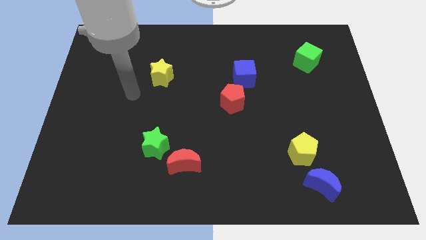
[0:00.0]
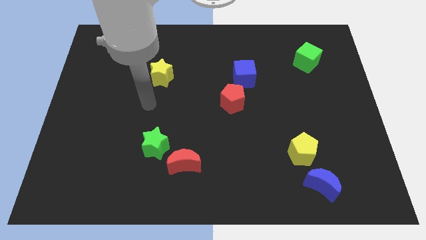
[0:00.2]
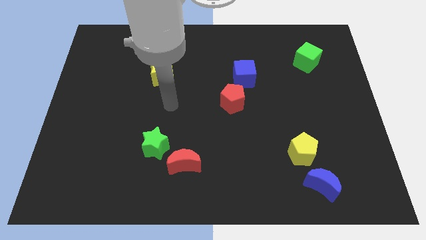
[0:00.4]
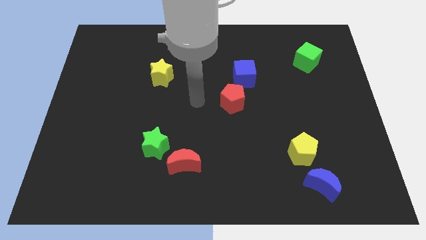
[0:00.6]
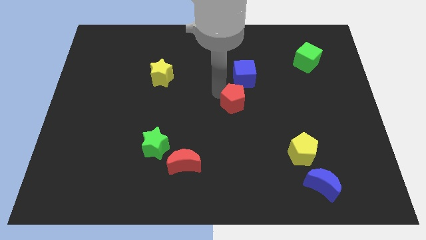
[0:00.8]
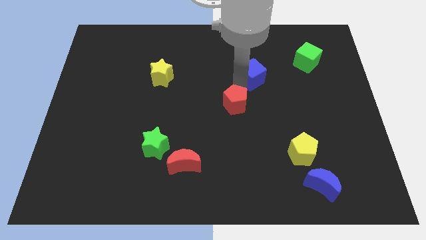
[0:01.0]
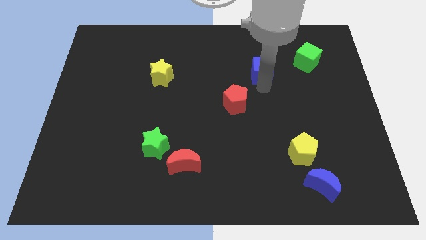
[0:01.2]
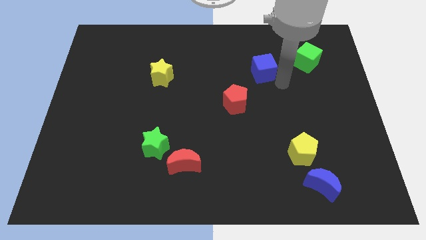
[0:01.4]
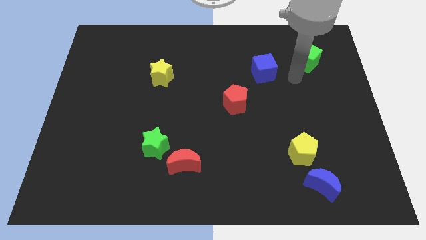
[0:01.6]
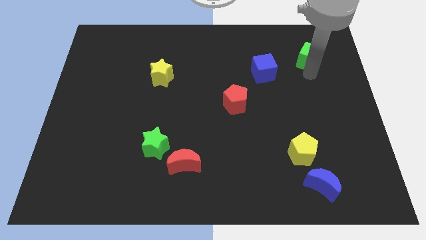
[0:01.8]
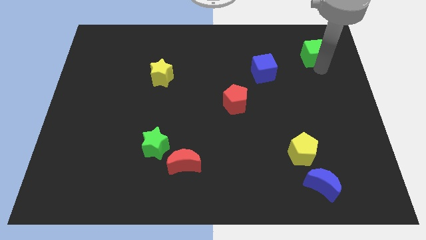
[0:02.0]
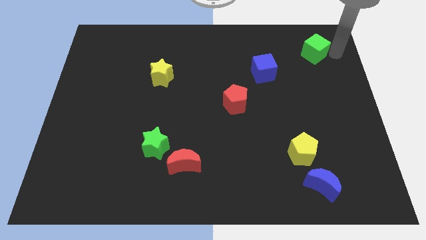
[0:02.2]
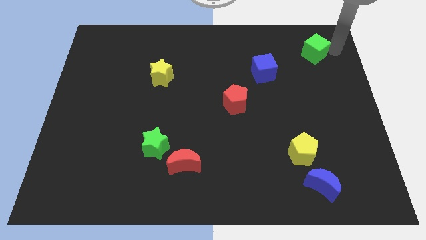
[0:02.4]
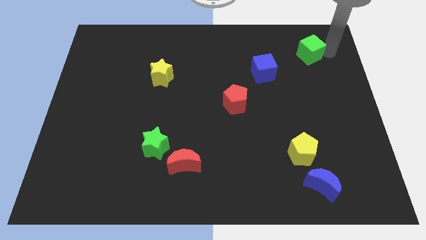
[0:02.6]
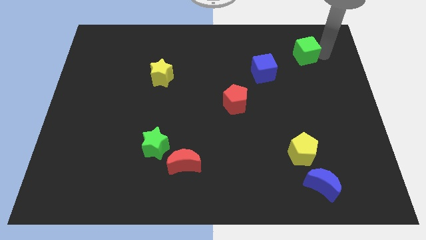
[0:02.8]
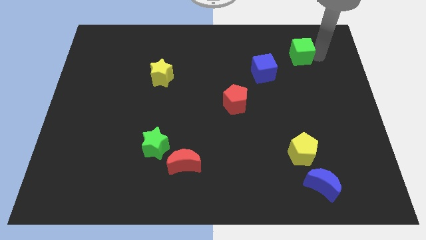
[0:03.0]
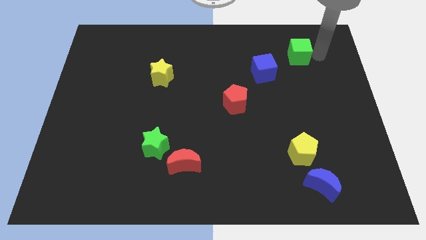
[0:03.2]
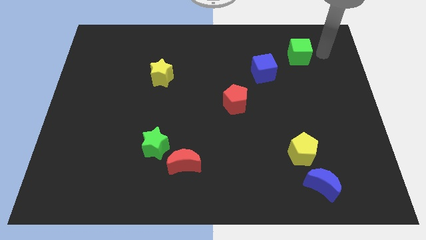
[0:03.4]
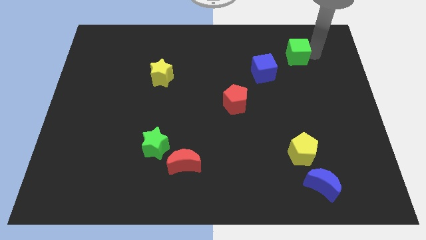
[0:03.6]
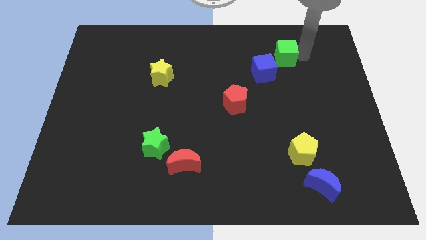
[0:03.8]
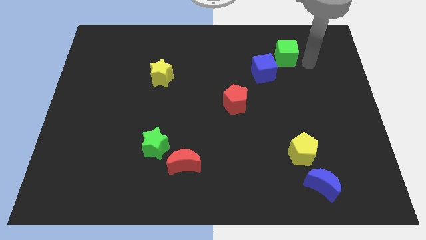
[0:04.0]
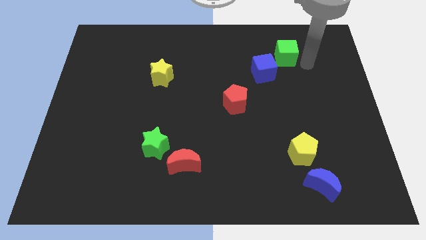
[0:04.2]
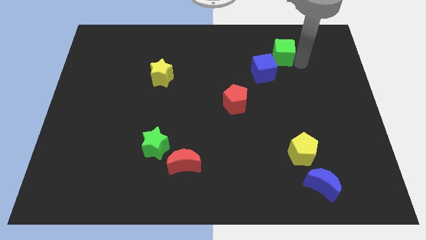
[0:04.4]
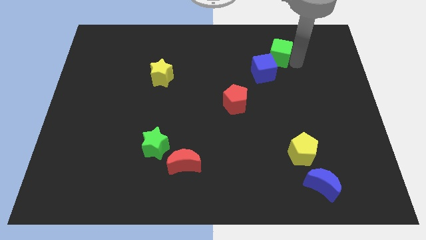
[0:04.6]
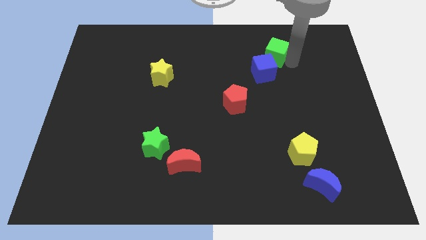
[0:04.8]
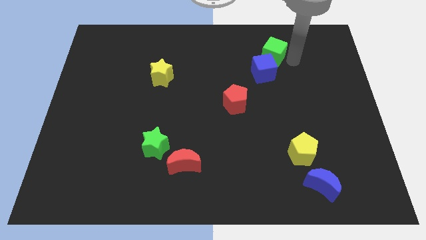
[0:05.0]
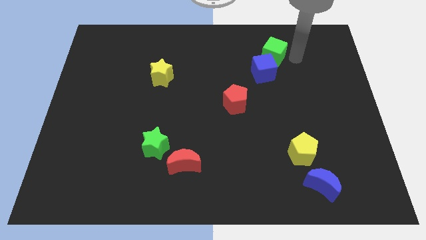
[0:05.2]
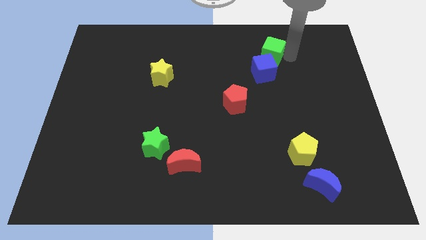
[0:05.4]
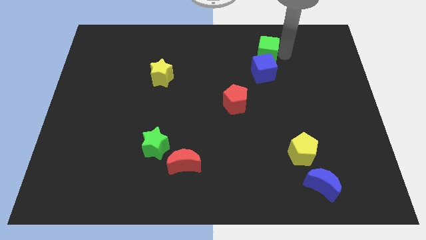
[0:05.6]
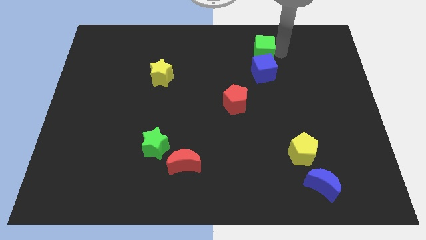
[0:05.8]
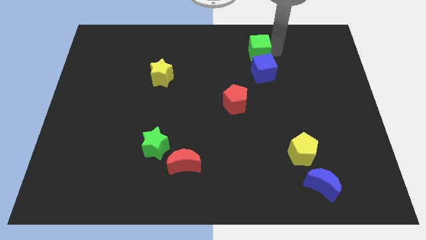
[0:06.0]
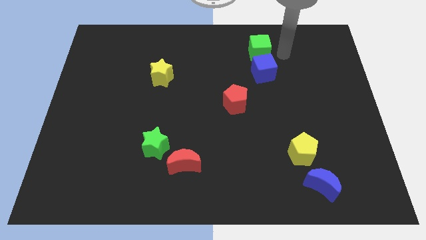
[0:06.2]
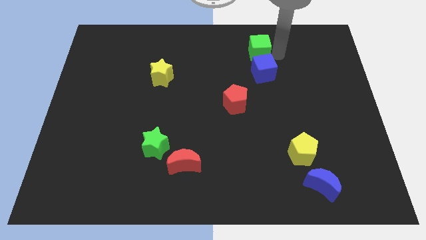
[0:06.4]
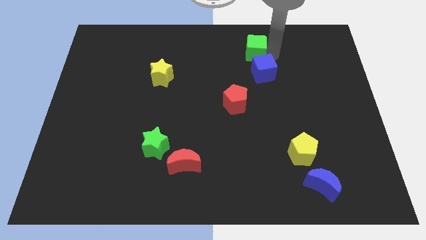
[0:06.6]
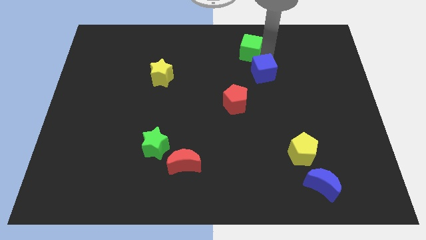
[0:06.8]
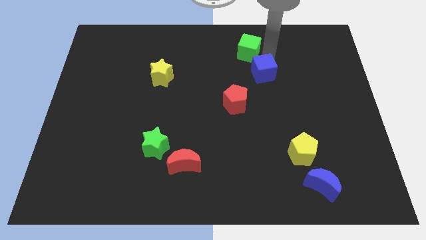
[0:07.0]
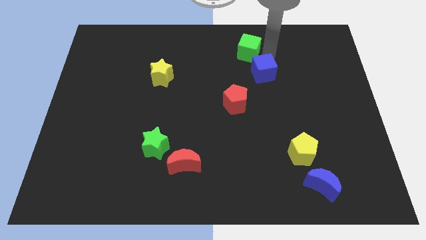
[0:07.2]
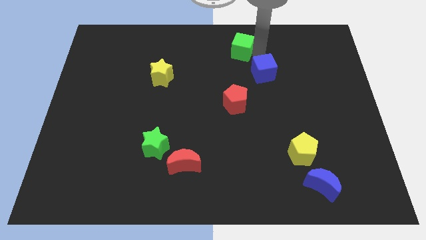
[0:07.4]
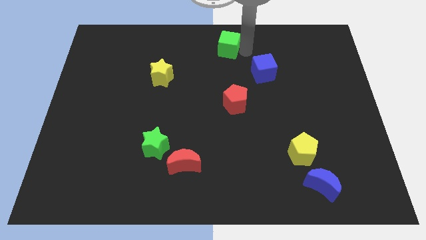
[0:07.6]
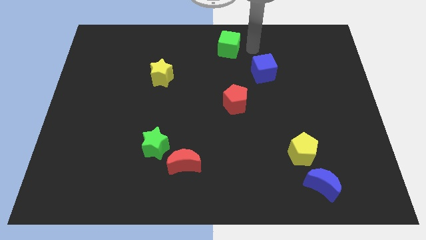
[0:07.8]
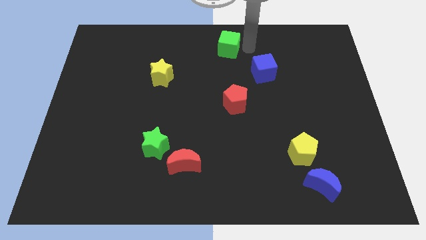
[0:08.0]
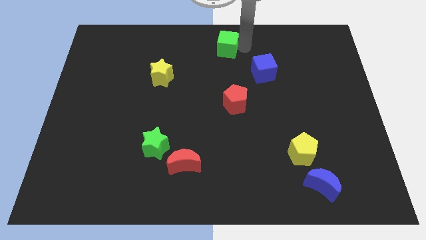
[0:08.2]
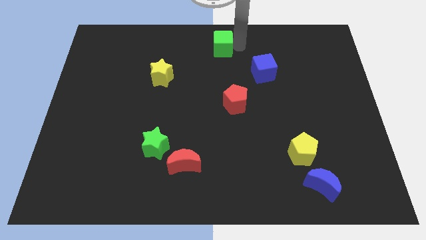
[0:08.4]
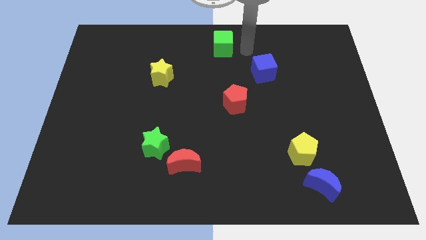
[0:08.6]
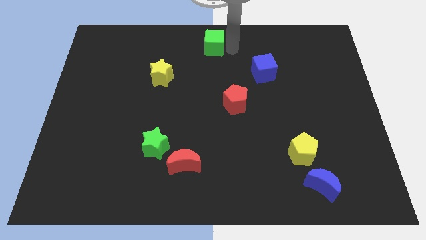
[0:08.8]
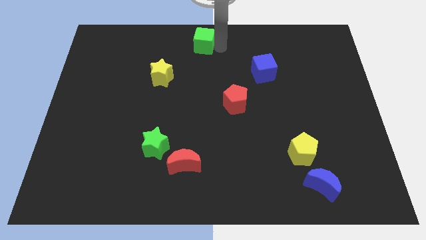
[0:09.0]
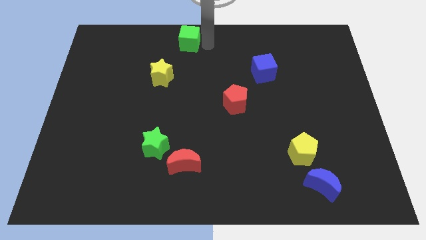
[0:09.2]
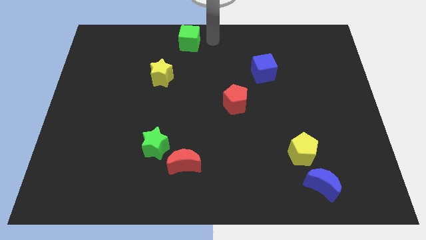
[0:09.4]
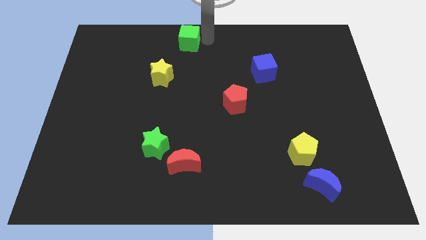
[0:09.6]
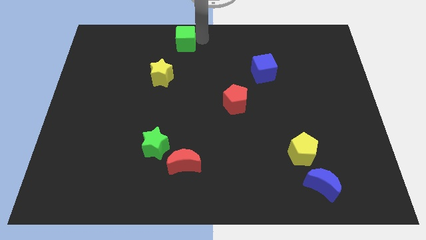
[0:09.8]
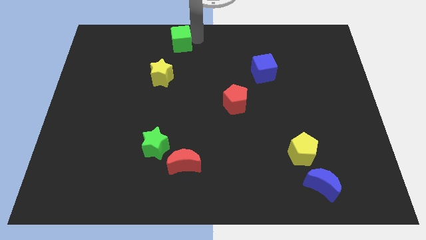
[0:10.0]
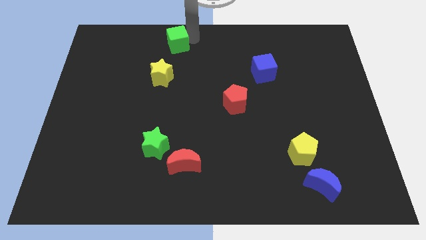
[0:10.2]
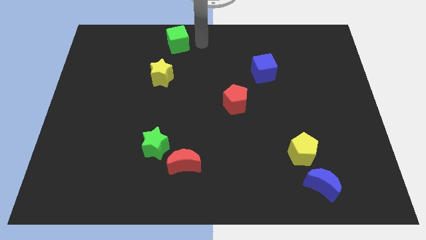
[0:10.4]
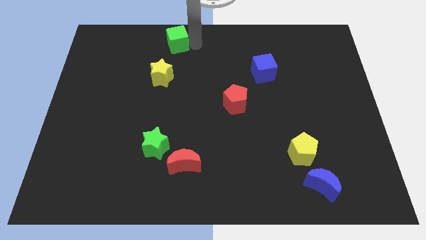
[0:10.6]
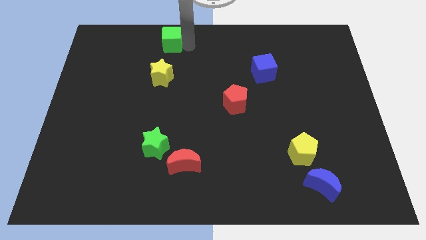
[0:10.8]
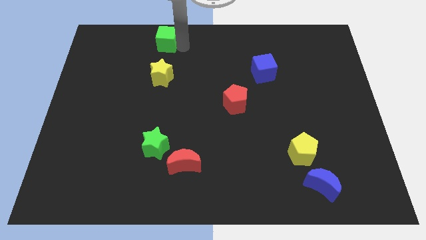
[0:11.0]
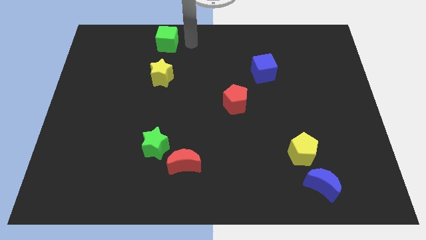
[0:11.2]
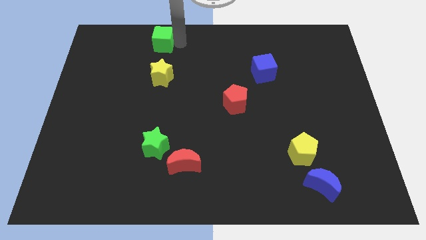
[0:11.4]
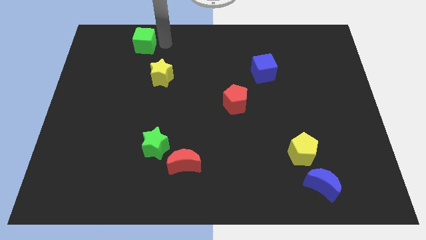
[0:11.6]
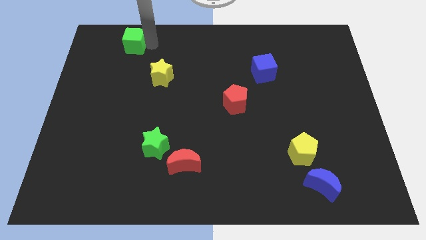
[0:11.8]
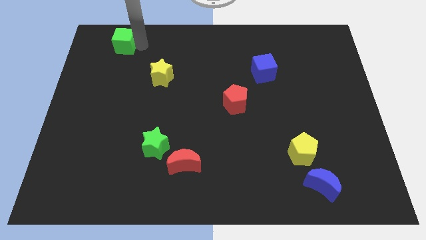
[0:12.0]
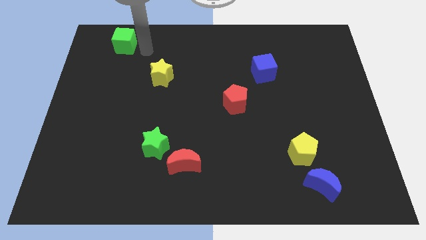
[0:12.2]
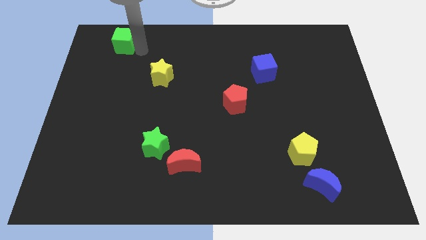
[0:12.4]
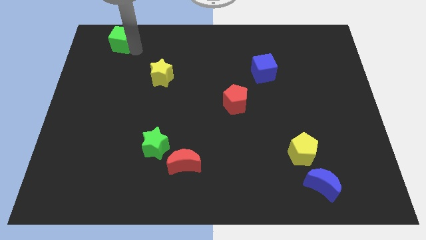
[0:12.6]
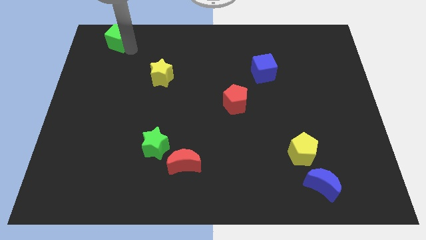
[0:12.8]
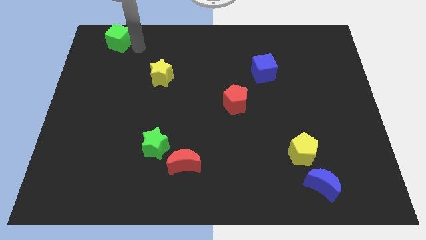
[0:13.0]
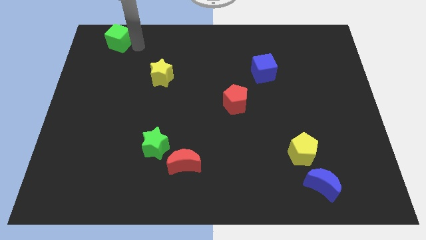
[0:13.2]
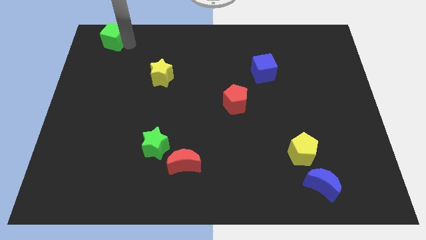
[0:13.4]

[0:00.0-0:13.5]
put the green cube to the top left corner
